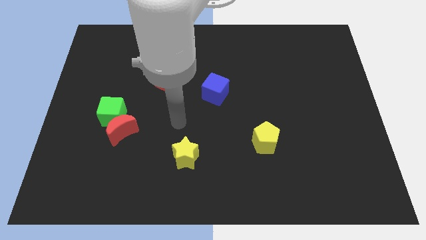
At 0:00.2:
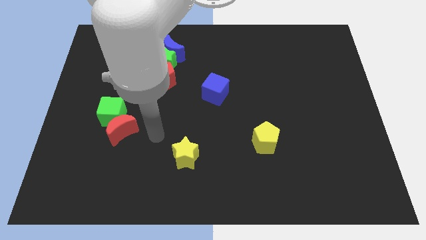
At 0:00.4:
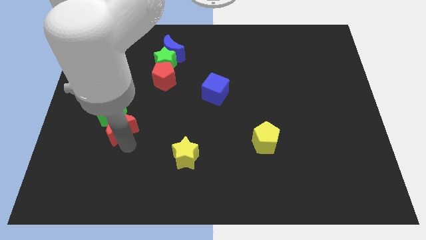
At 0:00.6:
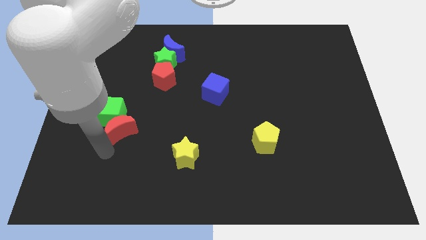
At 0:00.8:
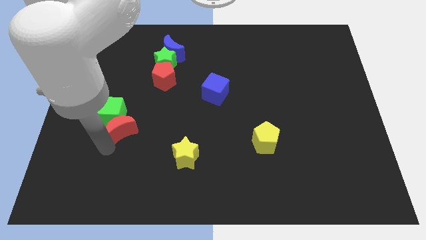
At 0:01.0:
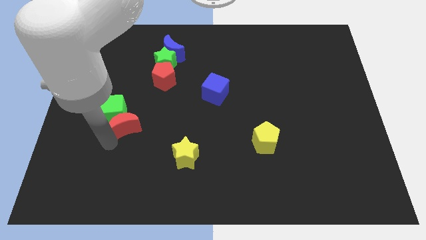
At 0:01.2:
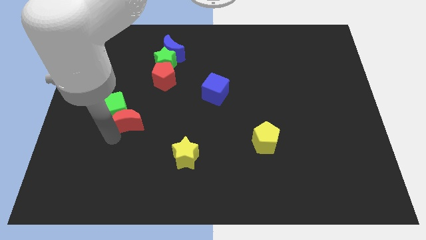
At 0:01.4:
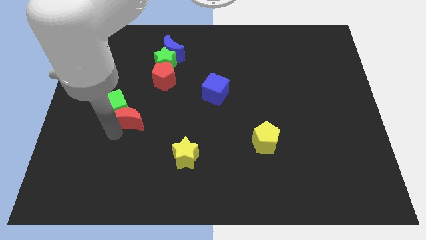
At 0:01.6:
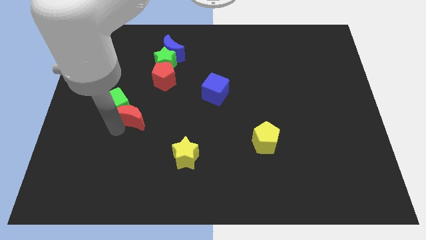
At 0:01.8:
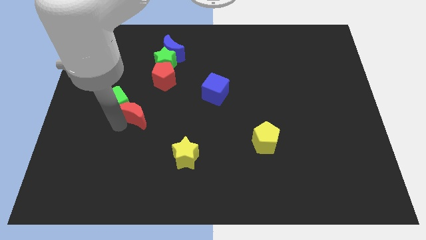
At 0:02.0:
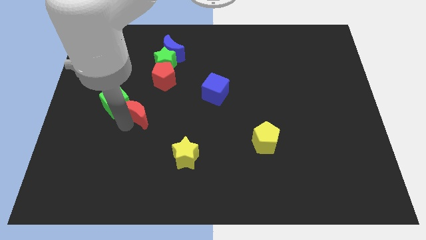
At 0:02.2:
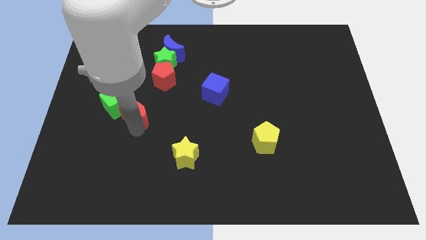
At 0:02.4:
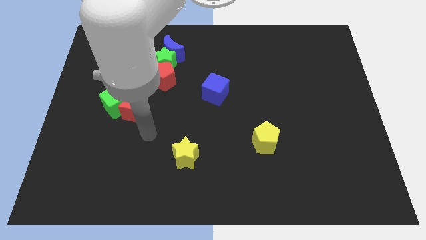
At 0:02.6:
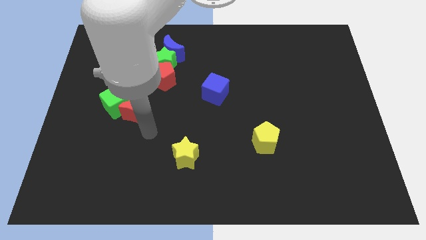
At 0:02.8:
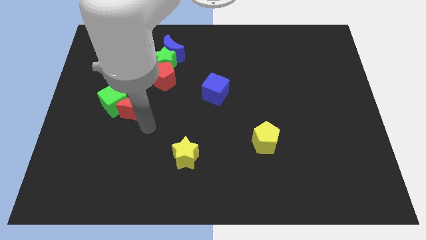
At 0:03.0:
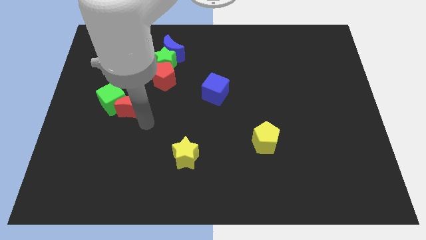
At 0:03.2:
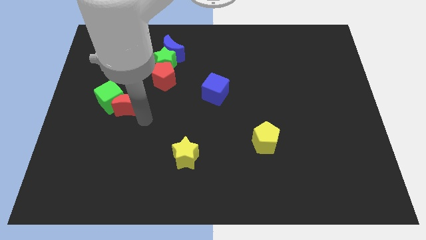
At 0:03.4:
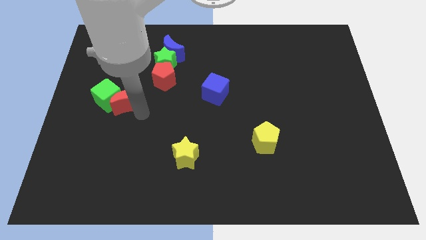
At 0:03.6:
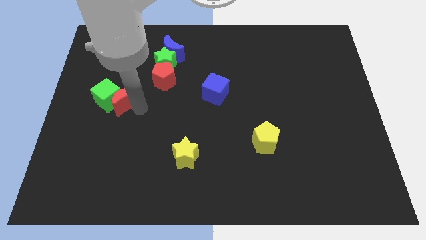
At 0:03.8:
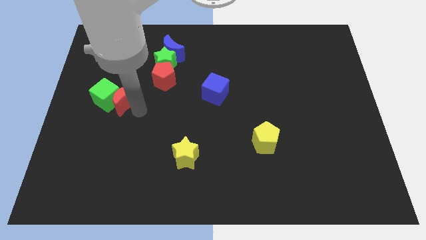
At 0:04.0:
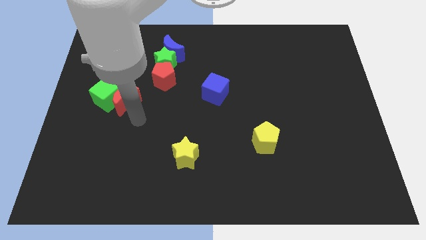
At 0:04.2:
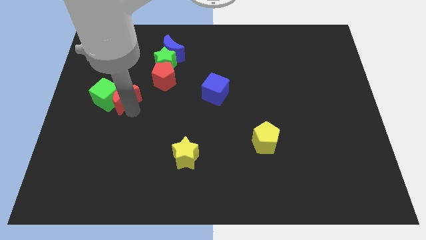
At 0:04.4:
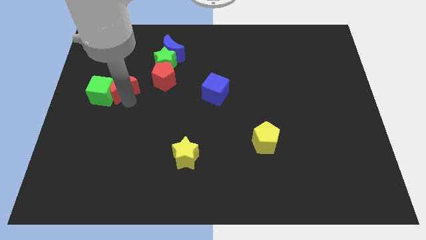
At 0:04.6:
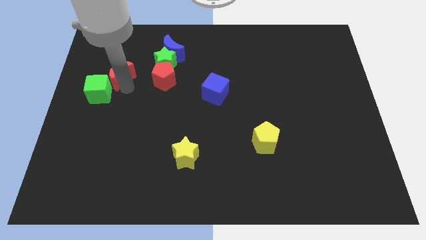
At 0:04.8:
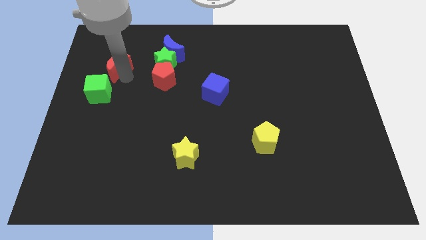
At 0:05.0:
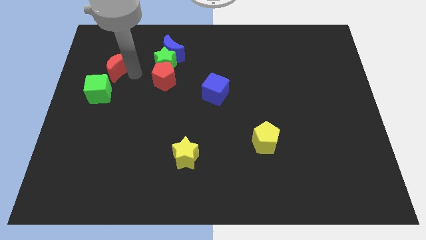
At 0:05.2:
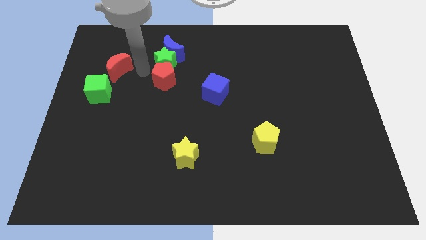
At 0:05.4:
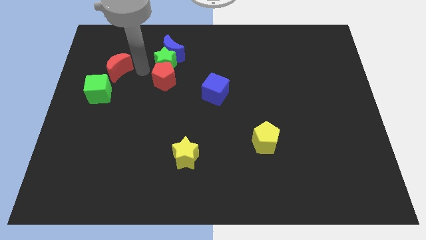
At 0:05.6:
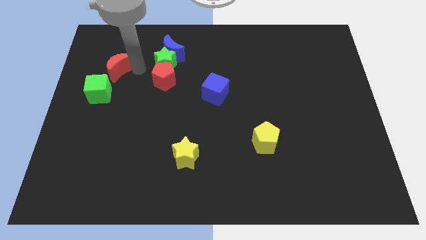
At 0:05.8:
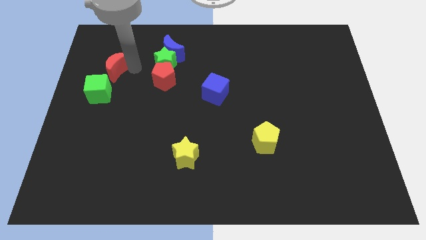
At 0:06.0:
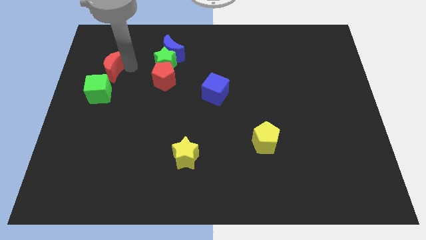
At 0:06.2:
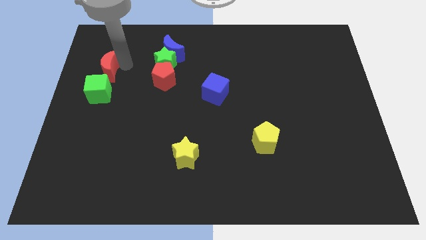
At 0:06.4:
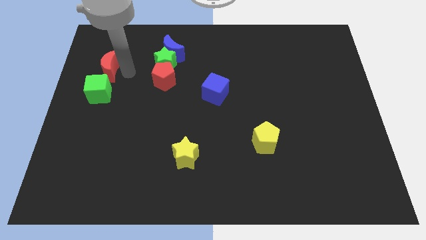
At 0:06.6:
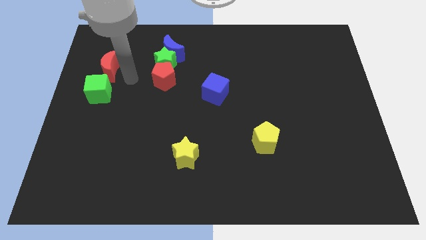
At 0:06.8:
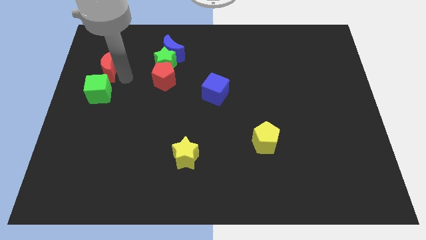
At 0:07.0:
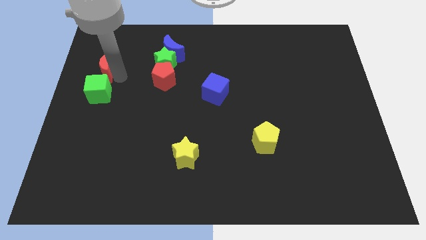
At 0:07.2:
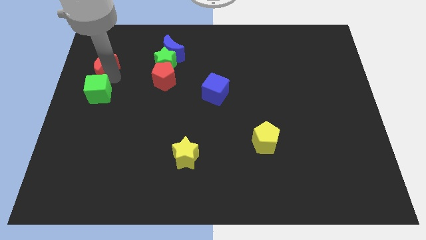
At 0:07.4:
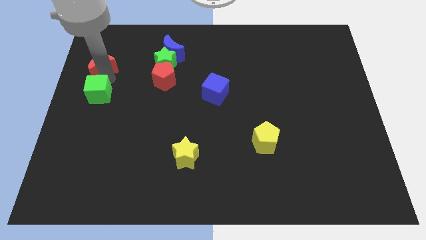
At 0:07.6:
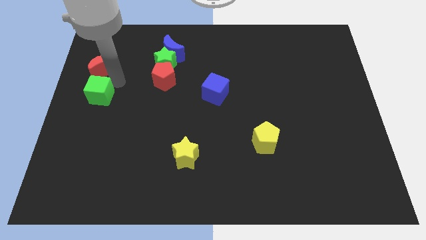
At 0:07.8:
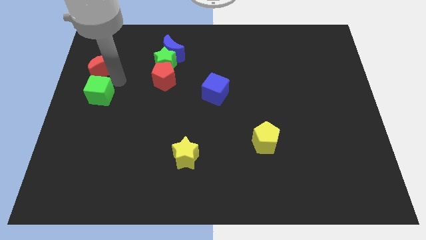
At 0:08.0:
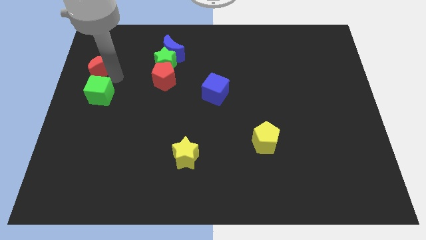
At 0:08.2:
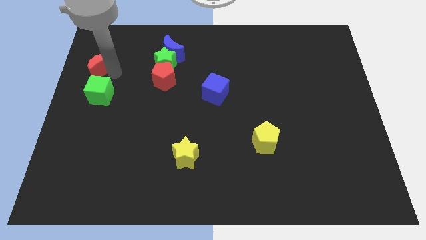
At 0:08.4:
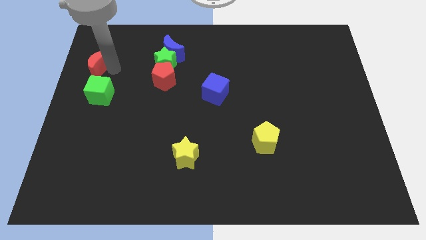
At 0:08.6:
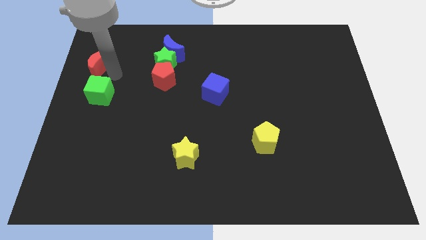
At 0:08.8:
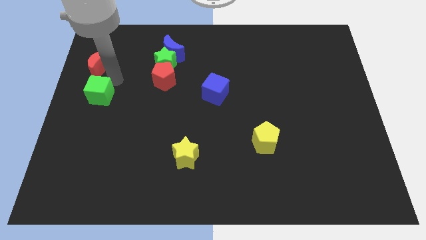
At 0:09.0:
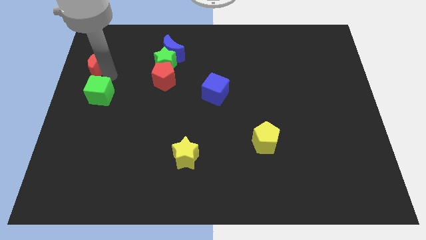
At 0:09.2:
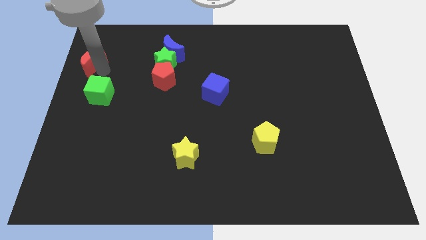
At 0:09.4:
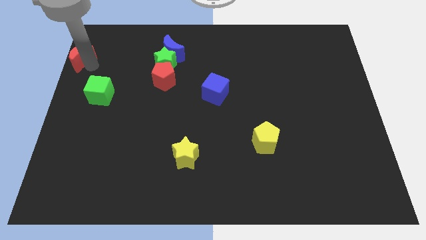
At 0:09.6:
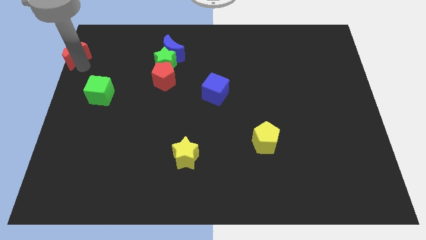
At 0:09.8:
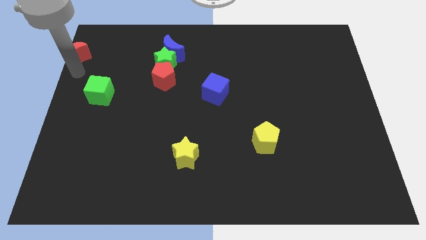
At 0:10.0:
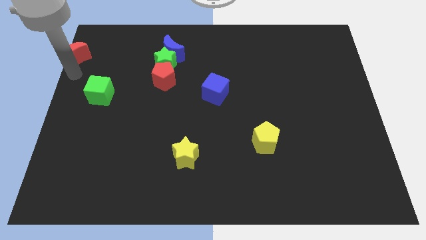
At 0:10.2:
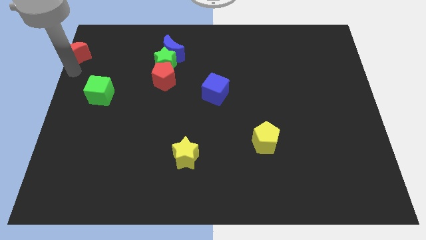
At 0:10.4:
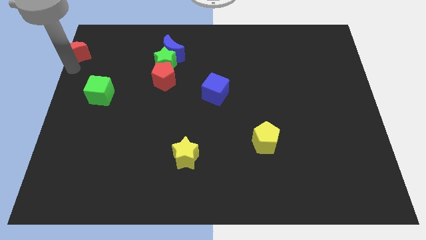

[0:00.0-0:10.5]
move the red moon to the top left corner

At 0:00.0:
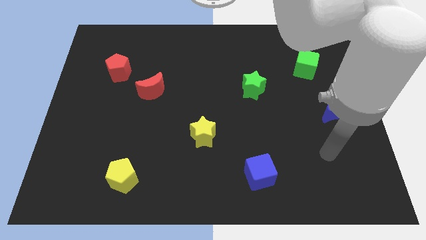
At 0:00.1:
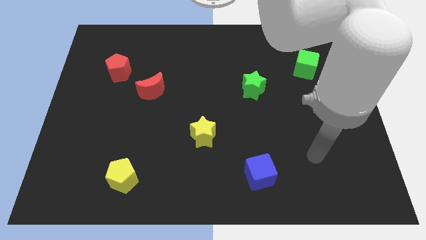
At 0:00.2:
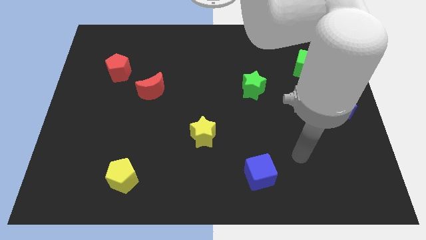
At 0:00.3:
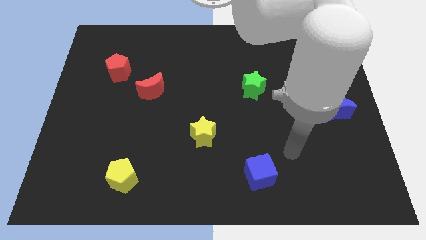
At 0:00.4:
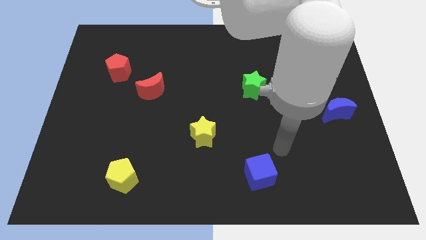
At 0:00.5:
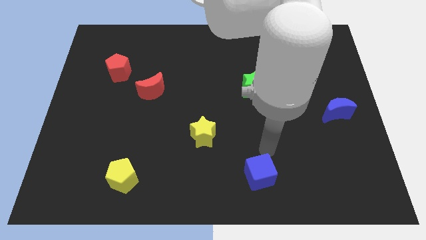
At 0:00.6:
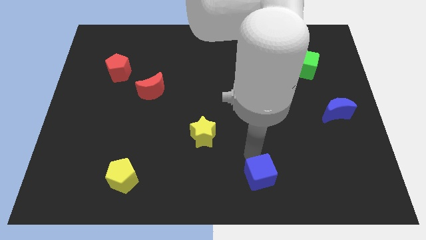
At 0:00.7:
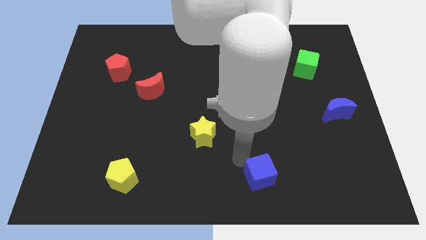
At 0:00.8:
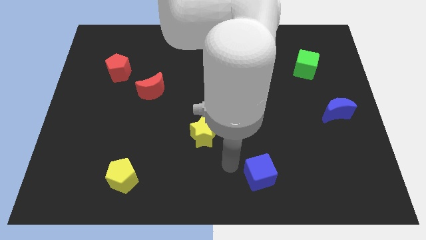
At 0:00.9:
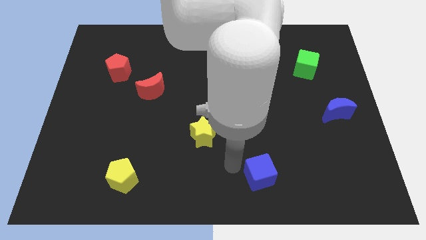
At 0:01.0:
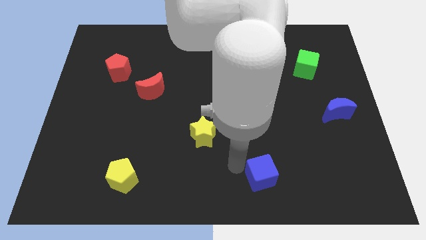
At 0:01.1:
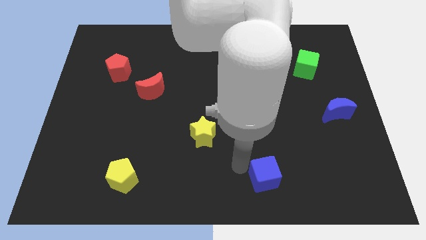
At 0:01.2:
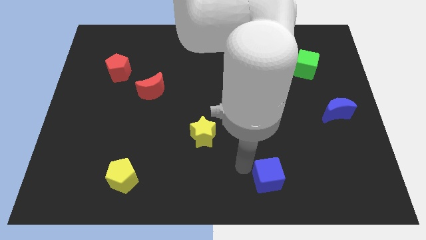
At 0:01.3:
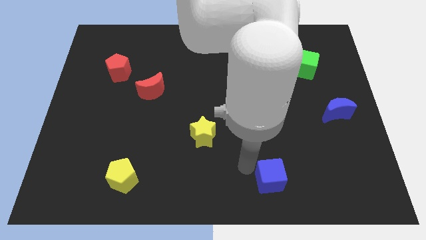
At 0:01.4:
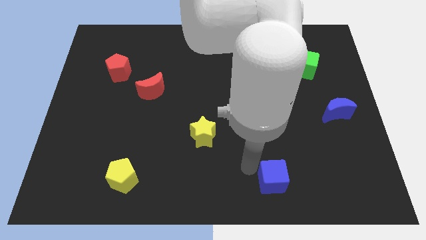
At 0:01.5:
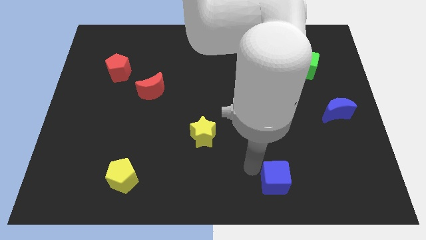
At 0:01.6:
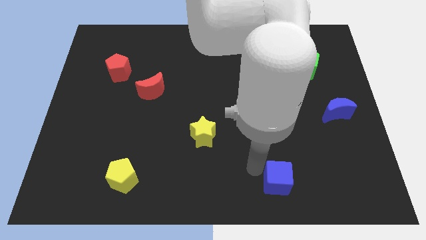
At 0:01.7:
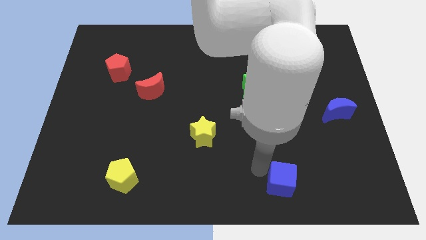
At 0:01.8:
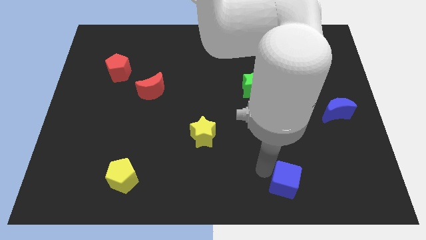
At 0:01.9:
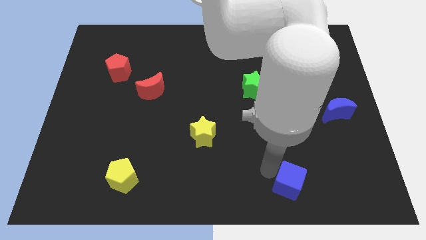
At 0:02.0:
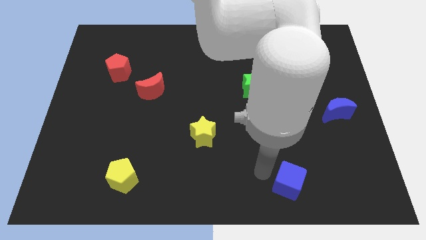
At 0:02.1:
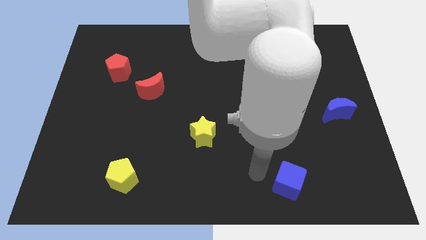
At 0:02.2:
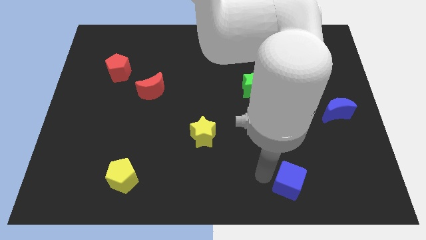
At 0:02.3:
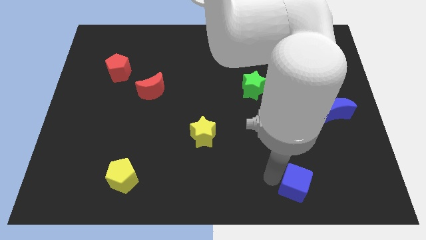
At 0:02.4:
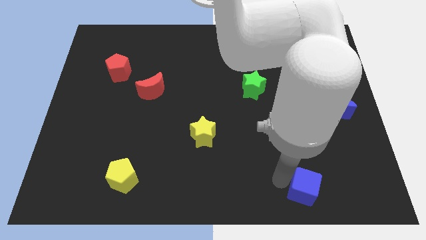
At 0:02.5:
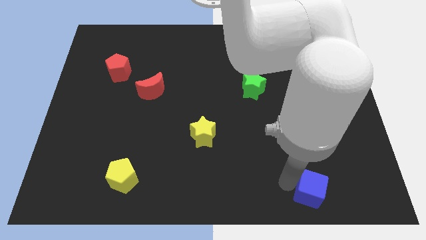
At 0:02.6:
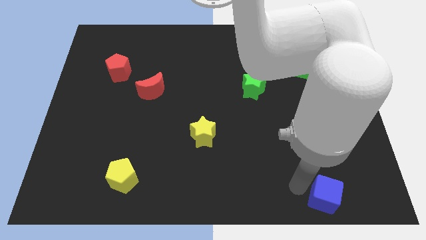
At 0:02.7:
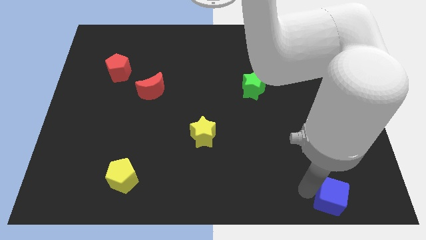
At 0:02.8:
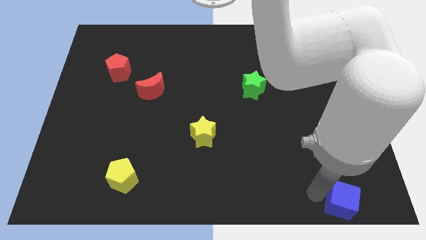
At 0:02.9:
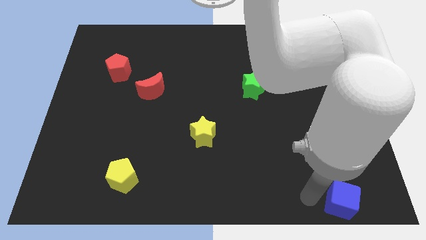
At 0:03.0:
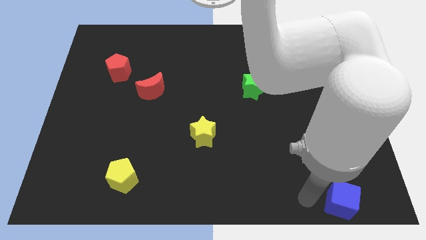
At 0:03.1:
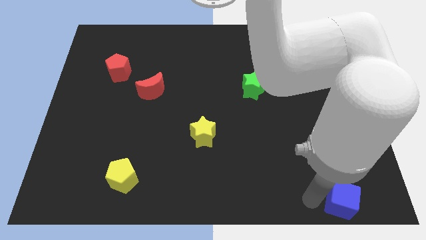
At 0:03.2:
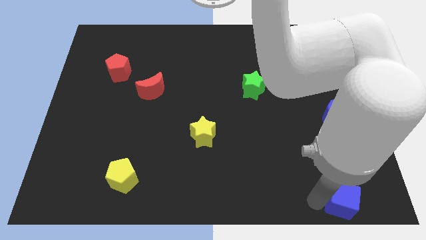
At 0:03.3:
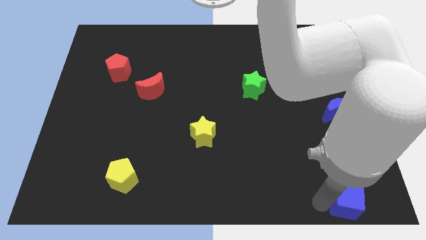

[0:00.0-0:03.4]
slide the blue cube to the bottom right of the board
